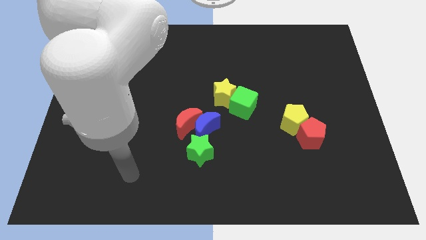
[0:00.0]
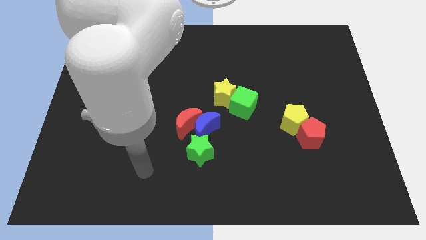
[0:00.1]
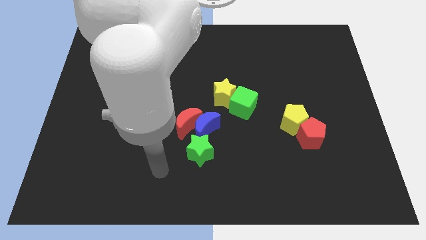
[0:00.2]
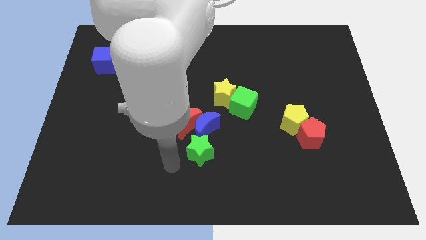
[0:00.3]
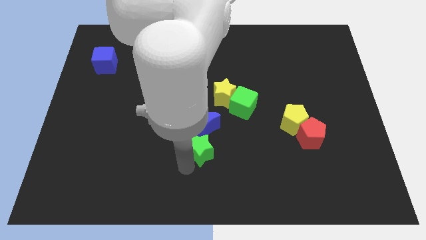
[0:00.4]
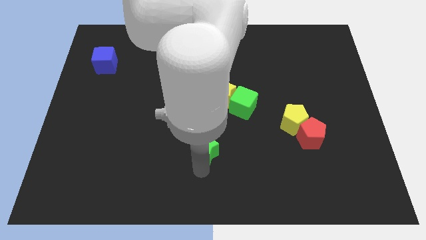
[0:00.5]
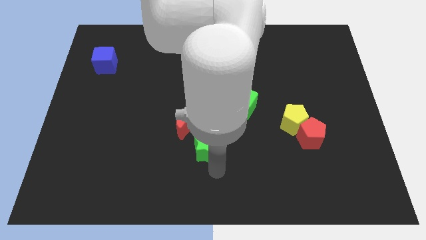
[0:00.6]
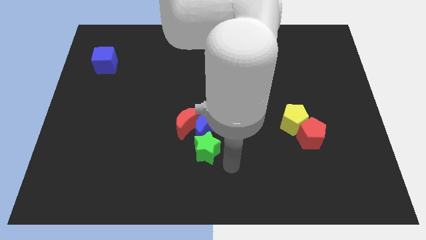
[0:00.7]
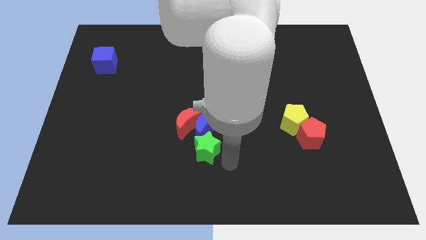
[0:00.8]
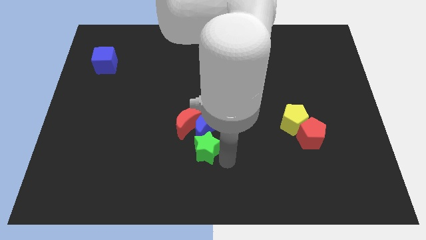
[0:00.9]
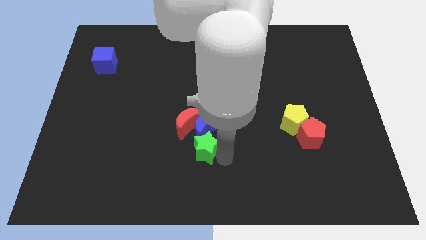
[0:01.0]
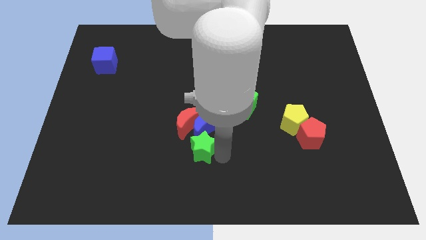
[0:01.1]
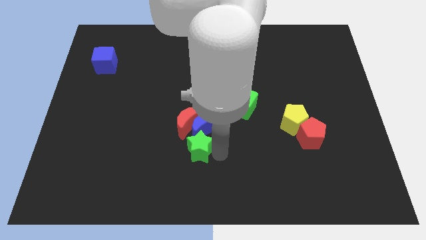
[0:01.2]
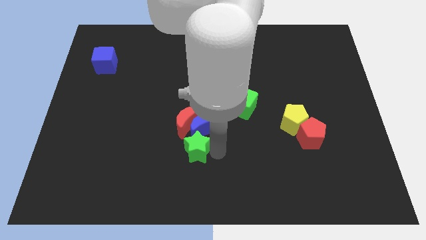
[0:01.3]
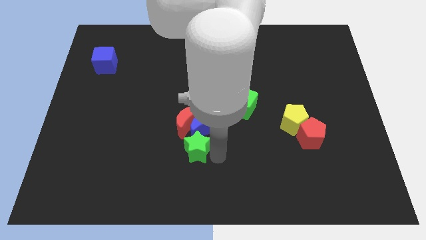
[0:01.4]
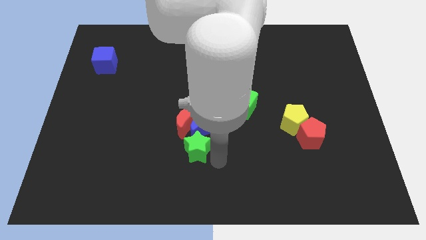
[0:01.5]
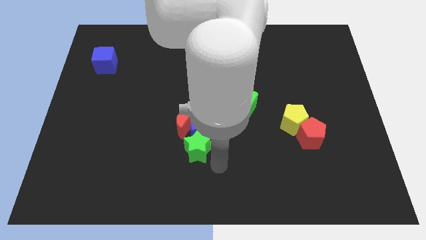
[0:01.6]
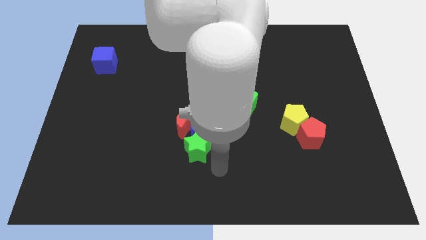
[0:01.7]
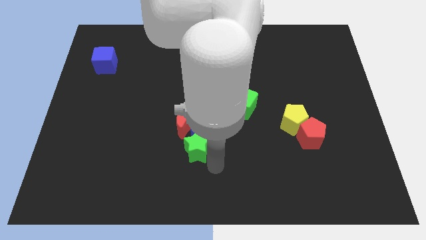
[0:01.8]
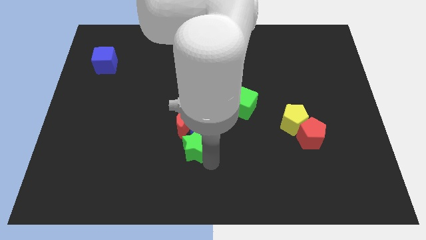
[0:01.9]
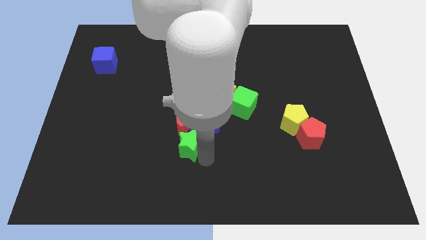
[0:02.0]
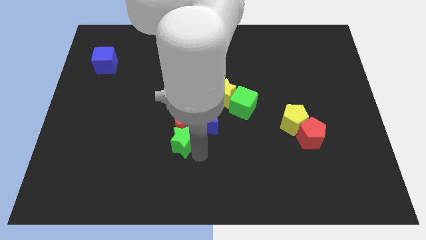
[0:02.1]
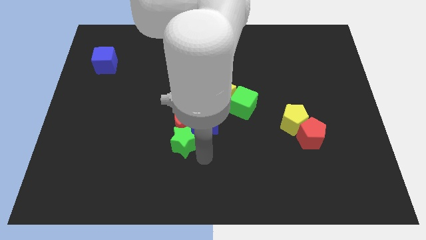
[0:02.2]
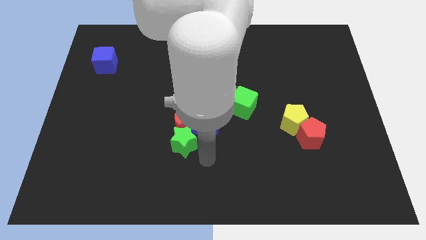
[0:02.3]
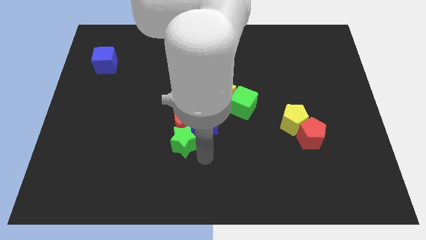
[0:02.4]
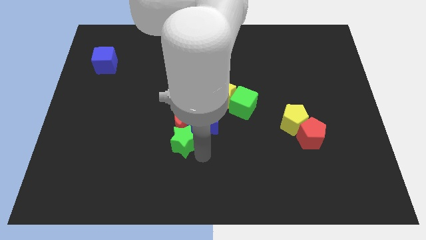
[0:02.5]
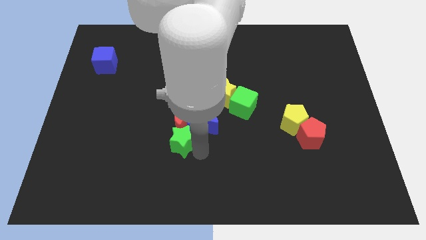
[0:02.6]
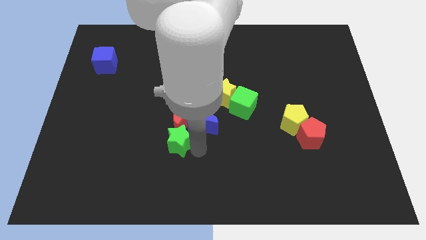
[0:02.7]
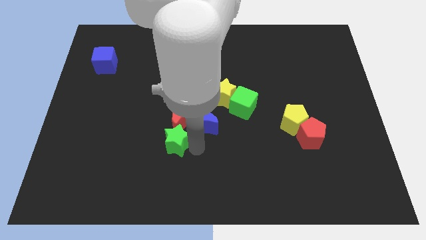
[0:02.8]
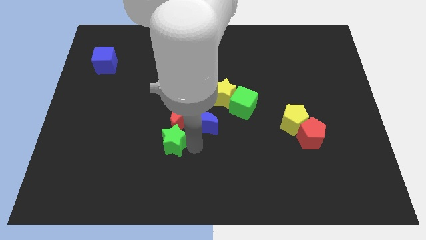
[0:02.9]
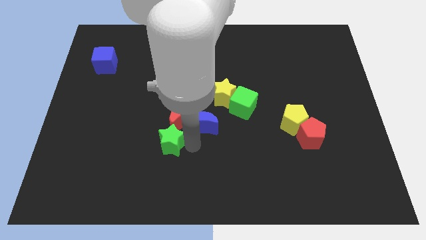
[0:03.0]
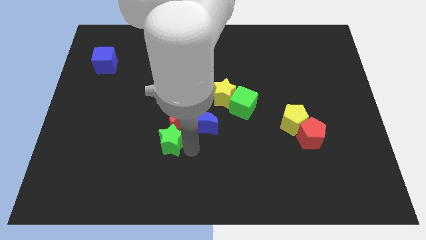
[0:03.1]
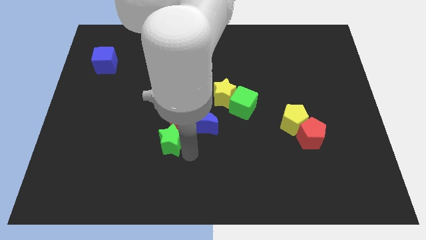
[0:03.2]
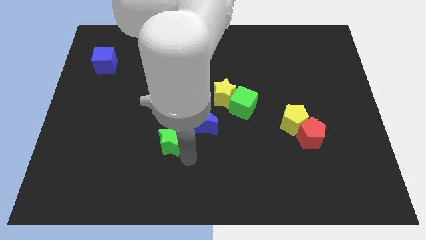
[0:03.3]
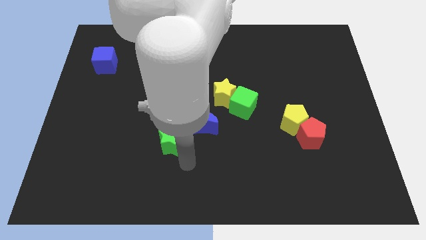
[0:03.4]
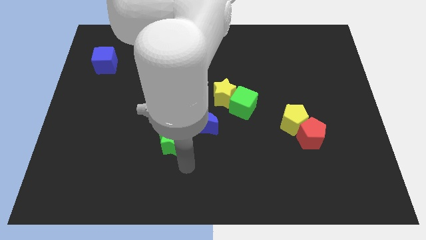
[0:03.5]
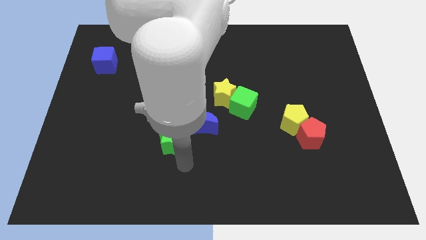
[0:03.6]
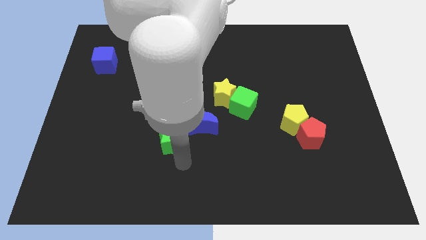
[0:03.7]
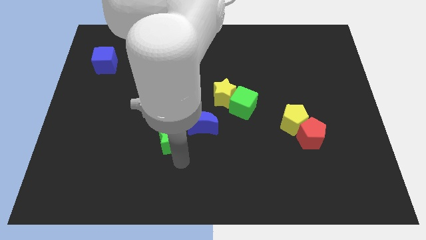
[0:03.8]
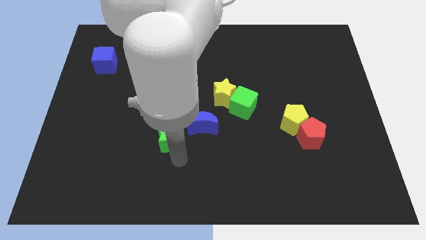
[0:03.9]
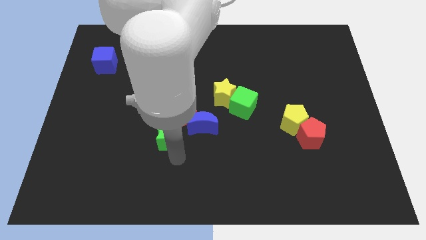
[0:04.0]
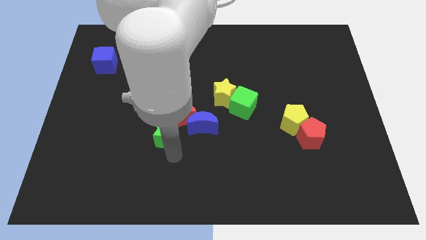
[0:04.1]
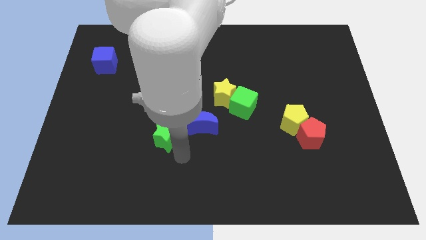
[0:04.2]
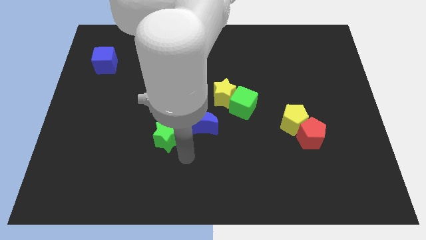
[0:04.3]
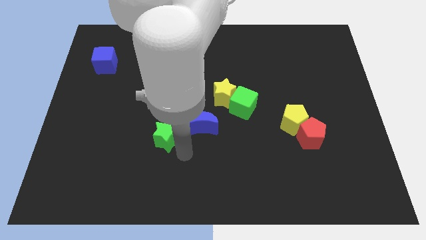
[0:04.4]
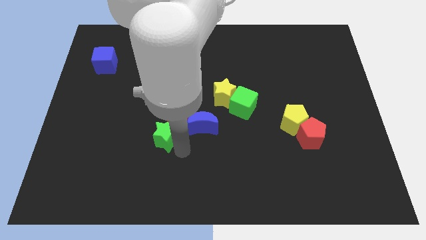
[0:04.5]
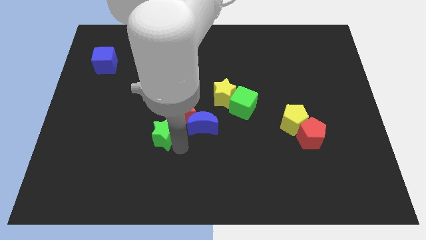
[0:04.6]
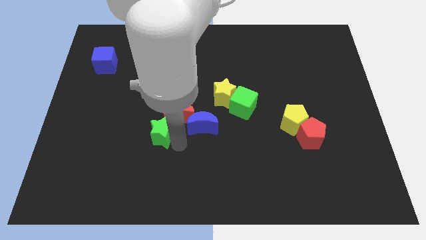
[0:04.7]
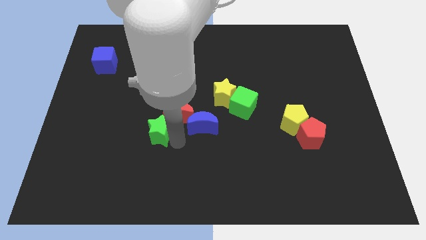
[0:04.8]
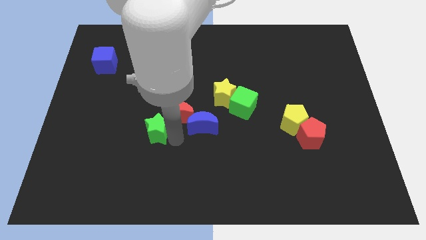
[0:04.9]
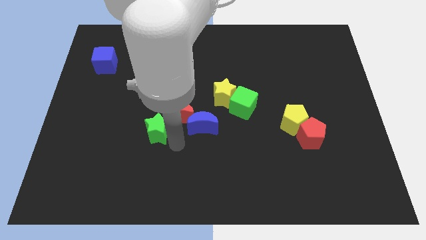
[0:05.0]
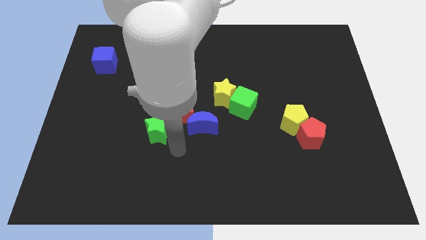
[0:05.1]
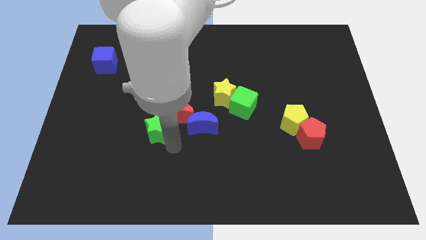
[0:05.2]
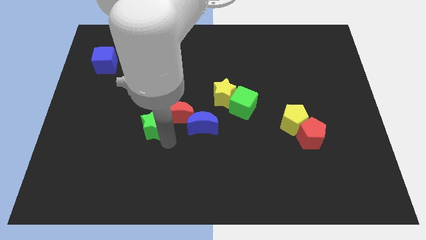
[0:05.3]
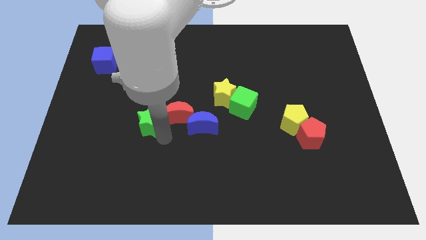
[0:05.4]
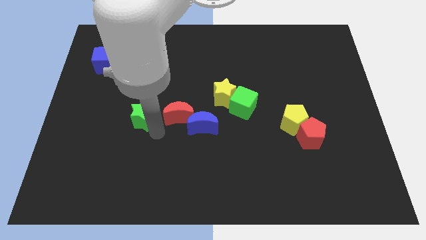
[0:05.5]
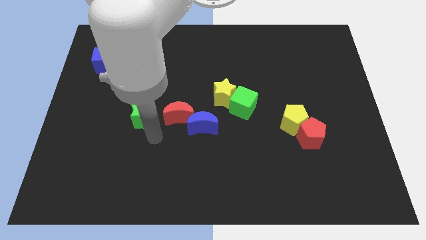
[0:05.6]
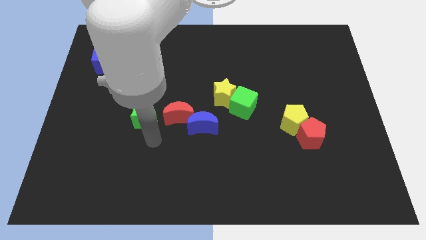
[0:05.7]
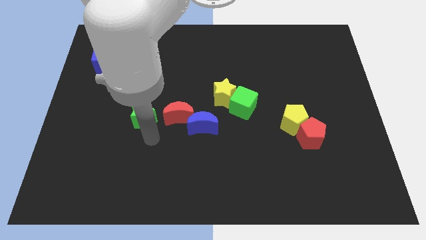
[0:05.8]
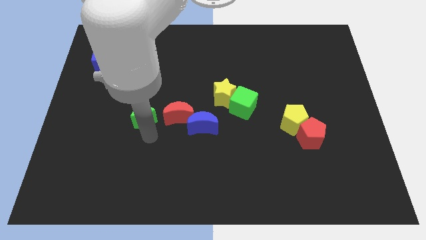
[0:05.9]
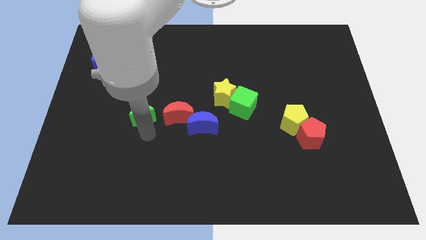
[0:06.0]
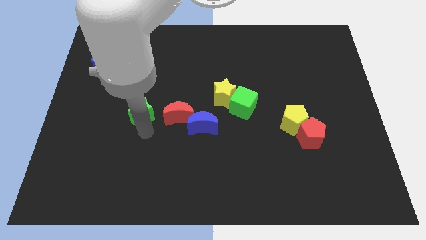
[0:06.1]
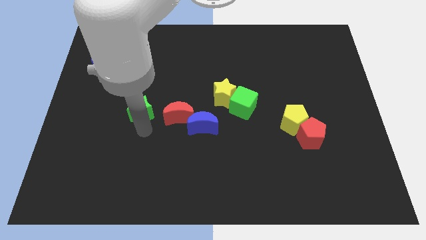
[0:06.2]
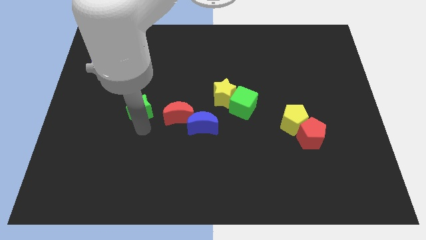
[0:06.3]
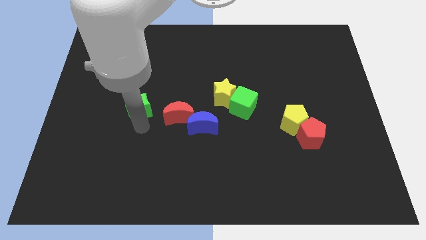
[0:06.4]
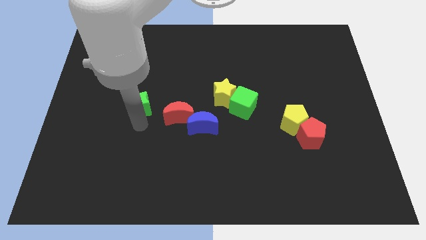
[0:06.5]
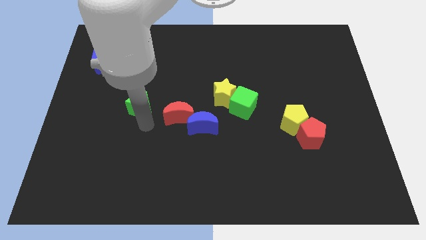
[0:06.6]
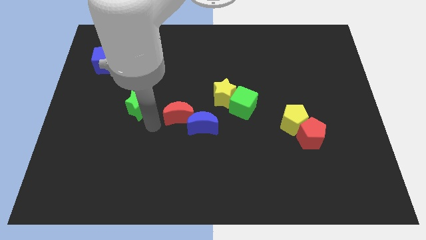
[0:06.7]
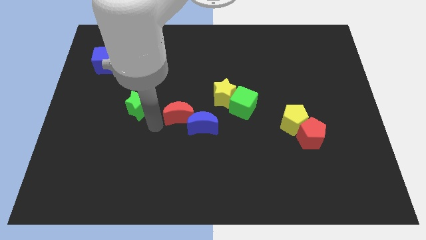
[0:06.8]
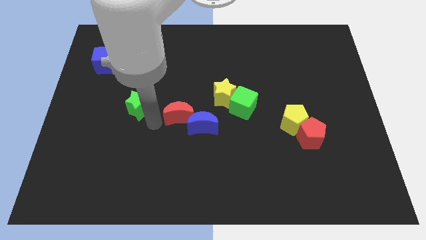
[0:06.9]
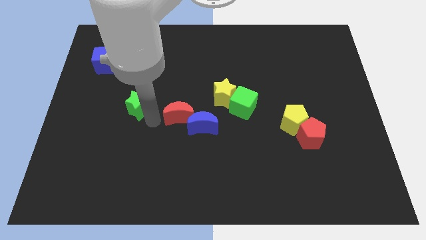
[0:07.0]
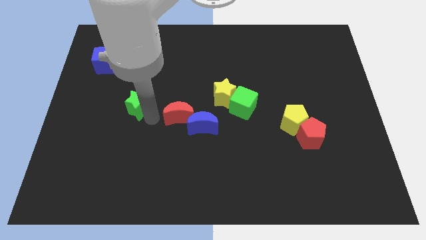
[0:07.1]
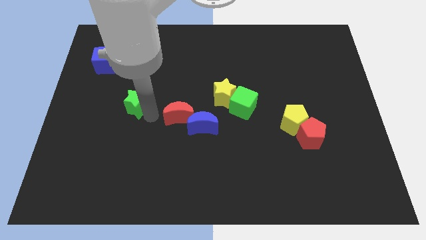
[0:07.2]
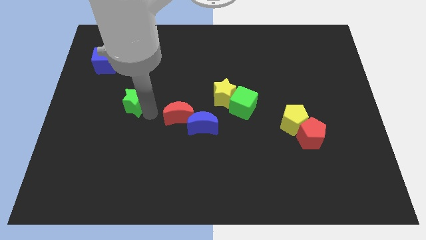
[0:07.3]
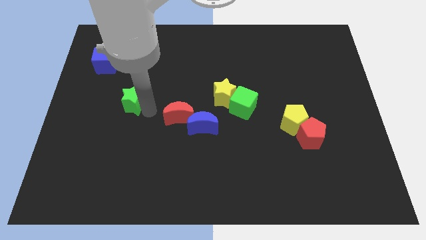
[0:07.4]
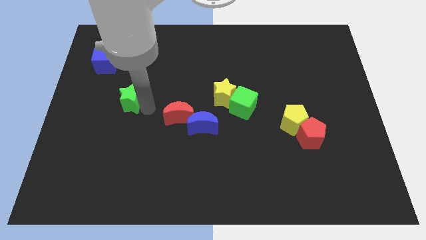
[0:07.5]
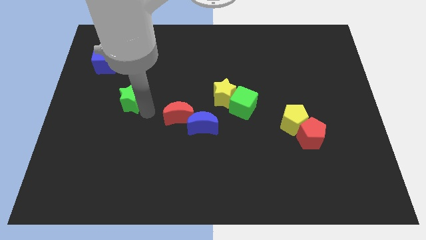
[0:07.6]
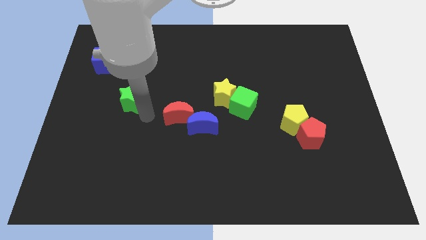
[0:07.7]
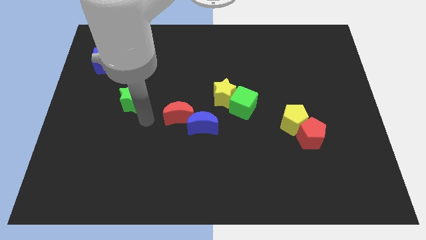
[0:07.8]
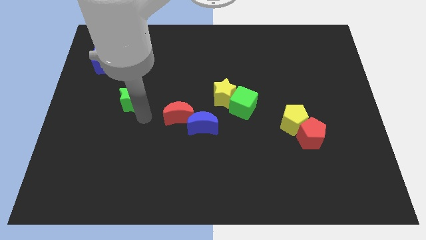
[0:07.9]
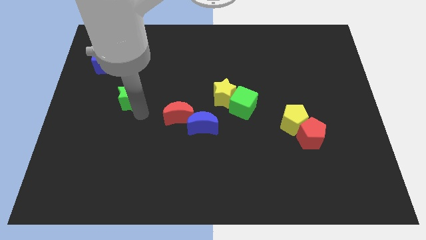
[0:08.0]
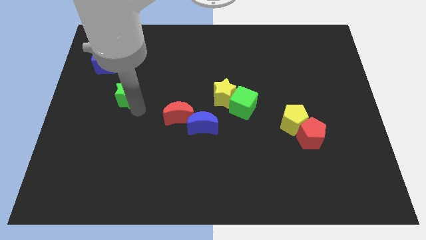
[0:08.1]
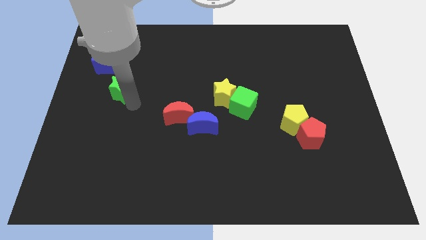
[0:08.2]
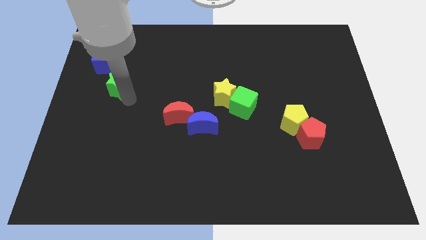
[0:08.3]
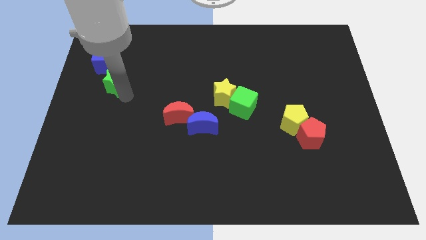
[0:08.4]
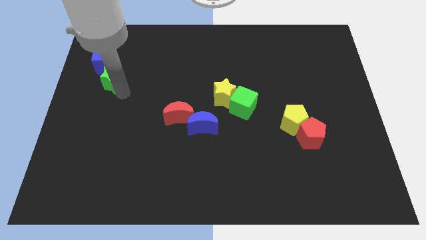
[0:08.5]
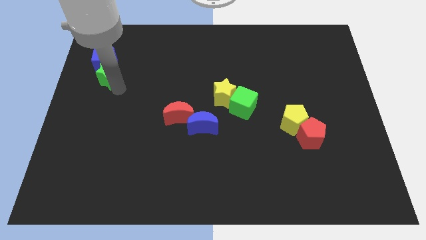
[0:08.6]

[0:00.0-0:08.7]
push the green star towards the blue cube
